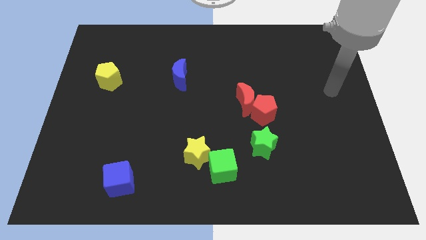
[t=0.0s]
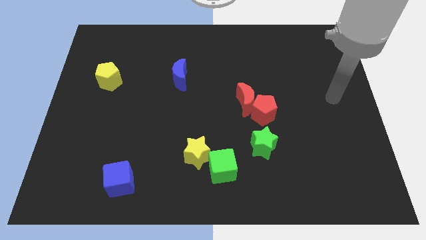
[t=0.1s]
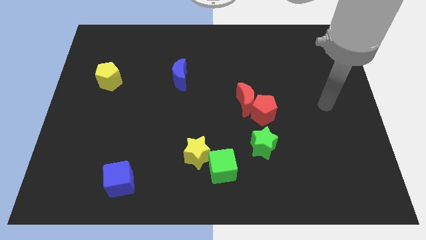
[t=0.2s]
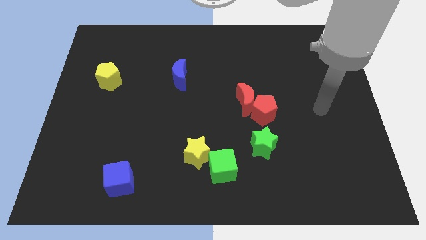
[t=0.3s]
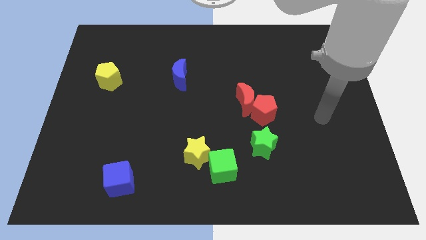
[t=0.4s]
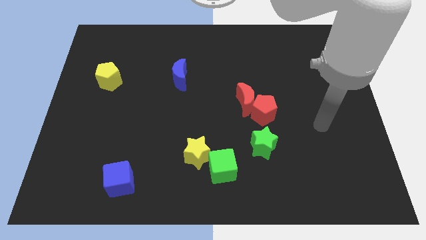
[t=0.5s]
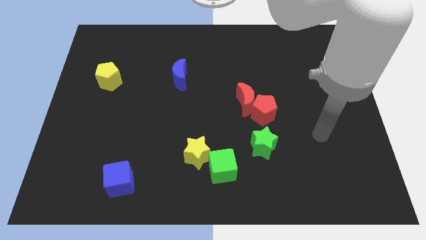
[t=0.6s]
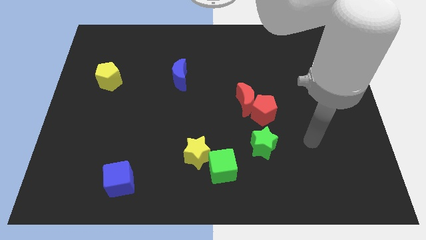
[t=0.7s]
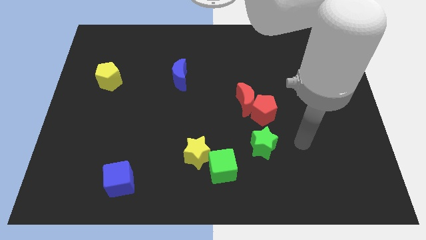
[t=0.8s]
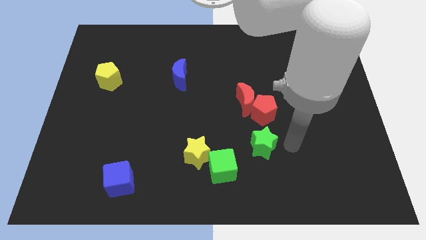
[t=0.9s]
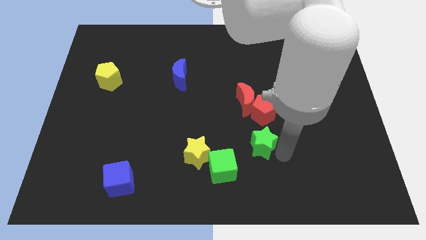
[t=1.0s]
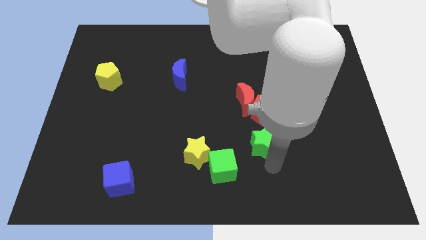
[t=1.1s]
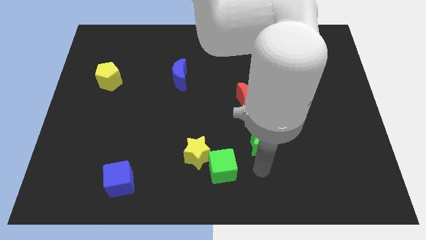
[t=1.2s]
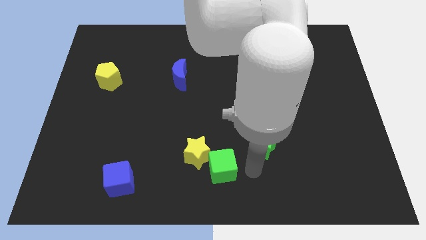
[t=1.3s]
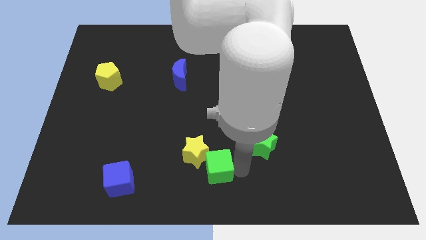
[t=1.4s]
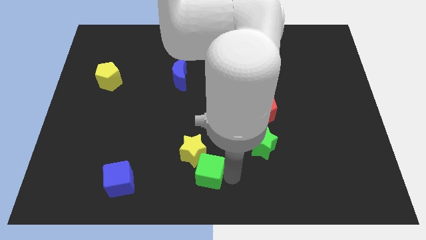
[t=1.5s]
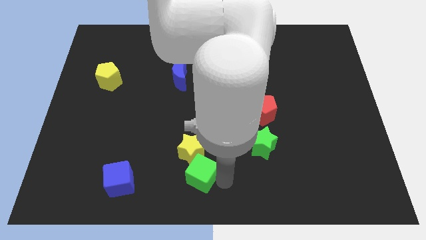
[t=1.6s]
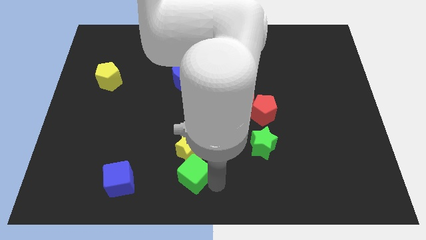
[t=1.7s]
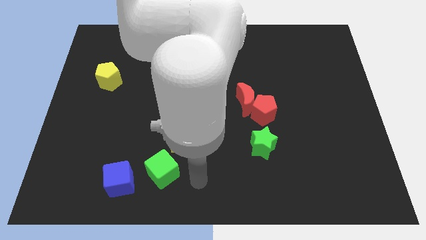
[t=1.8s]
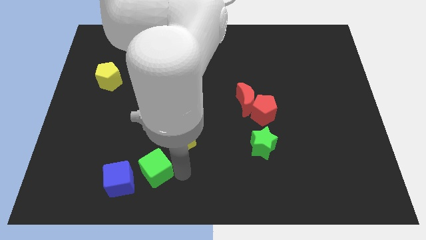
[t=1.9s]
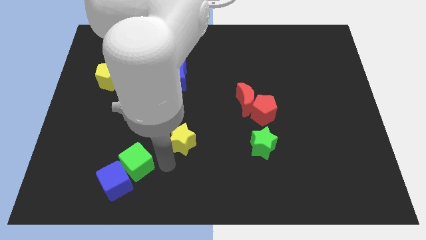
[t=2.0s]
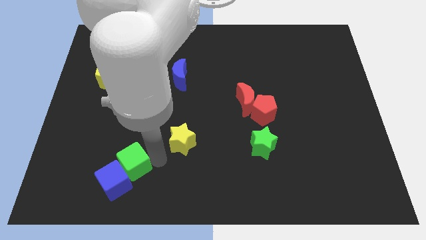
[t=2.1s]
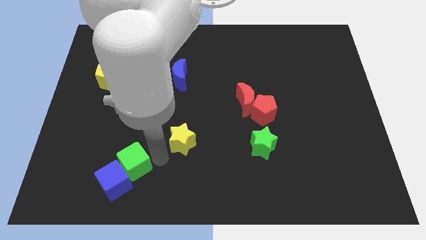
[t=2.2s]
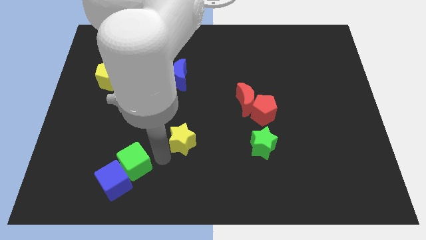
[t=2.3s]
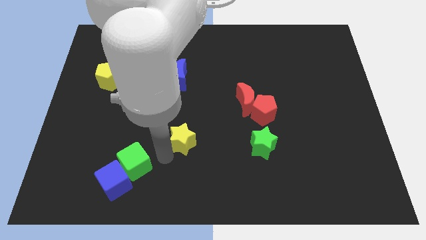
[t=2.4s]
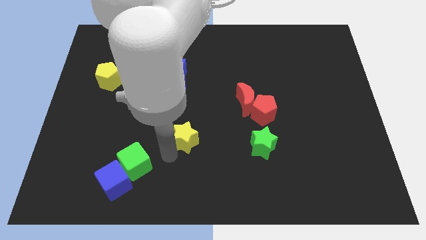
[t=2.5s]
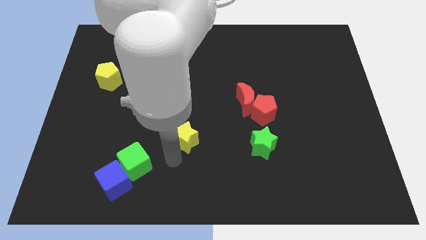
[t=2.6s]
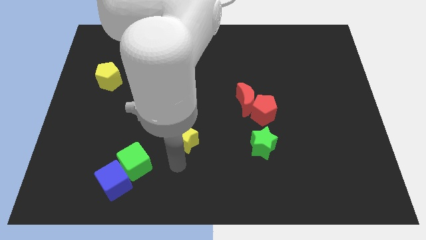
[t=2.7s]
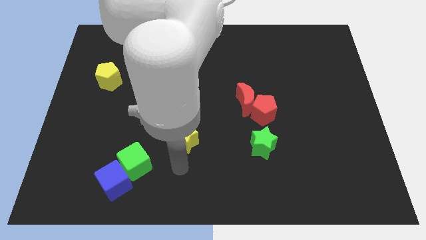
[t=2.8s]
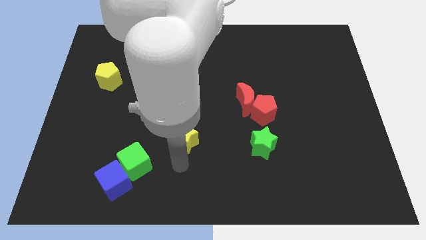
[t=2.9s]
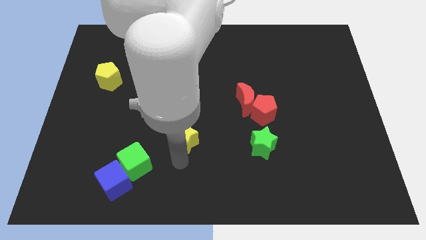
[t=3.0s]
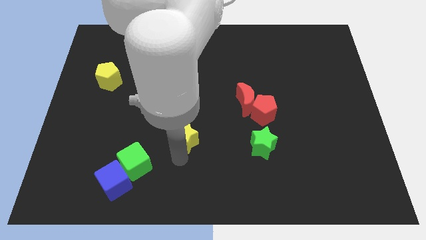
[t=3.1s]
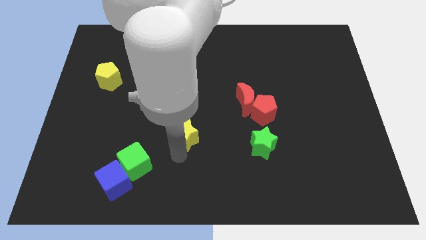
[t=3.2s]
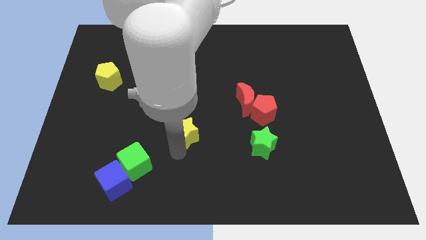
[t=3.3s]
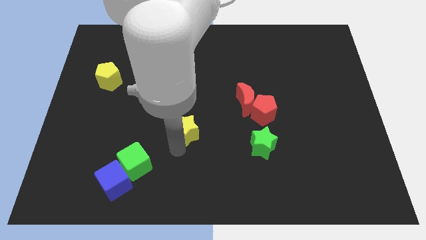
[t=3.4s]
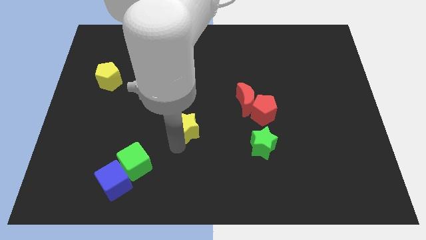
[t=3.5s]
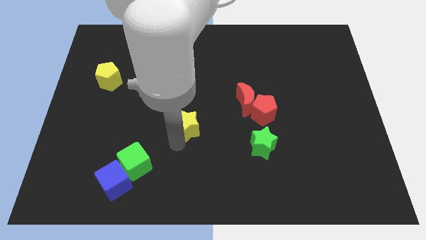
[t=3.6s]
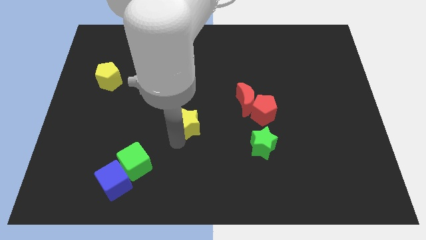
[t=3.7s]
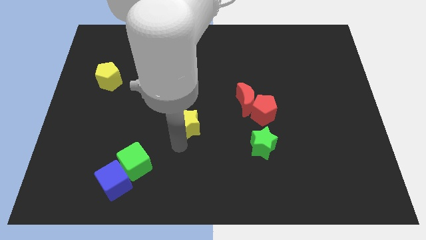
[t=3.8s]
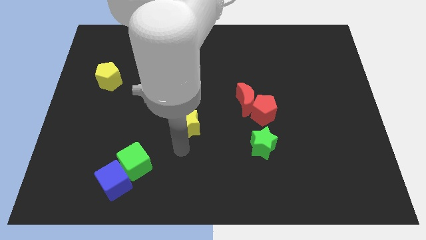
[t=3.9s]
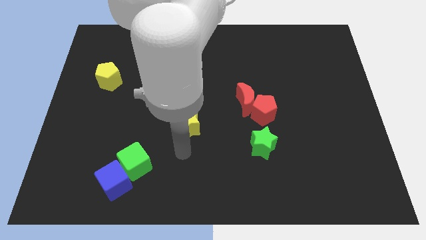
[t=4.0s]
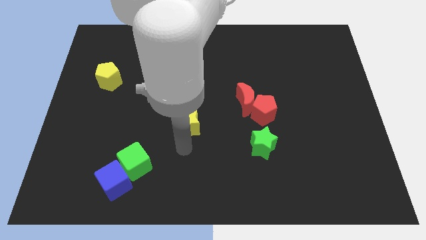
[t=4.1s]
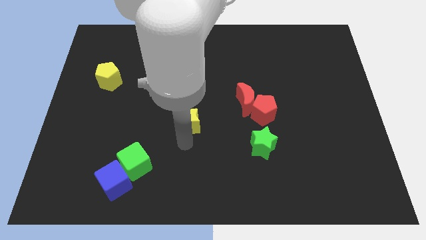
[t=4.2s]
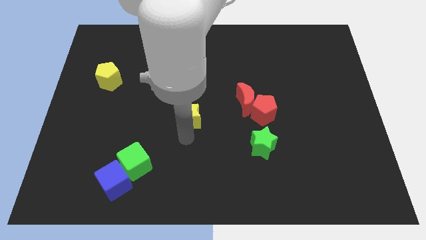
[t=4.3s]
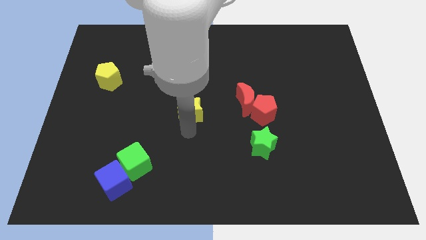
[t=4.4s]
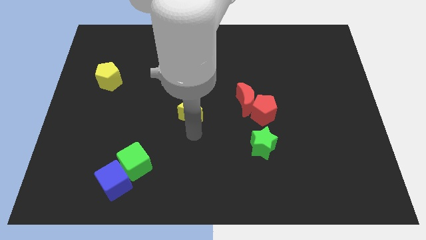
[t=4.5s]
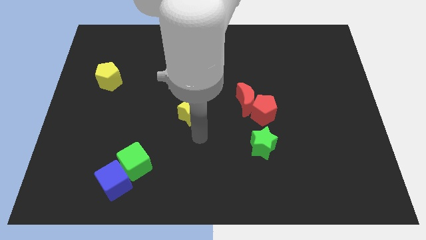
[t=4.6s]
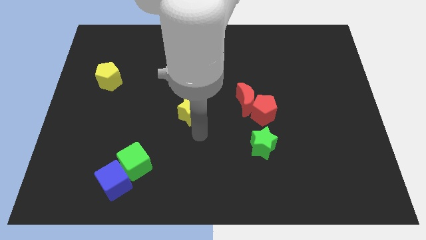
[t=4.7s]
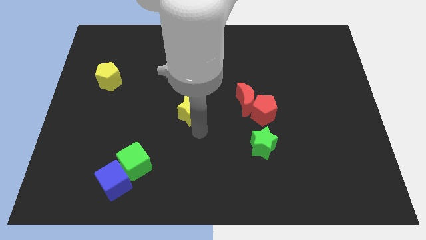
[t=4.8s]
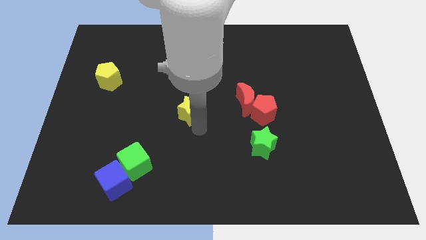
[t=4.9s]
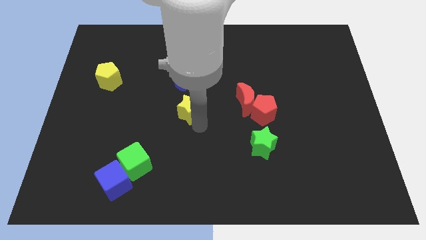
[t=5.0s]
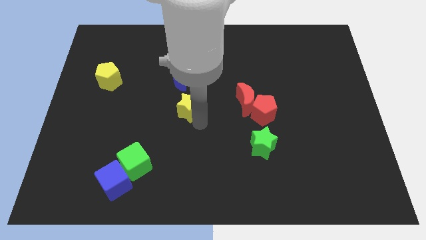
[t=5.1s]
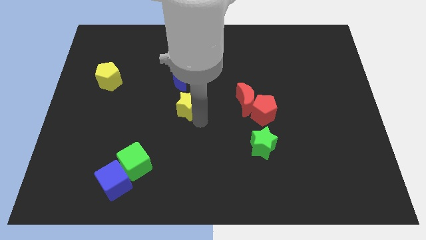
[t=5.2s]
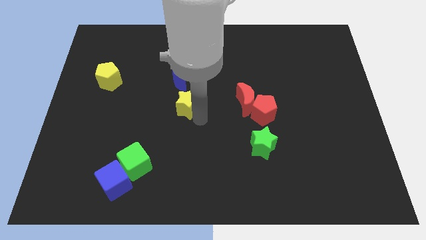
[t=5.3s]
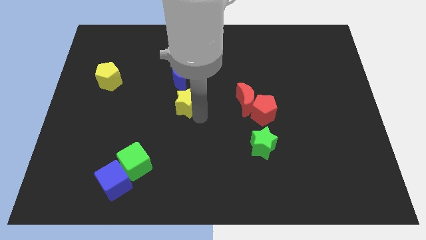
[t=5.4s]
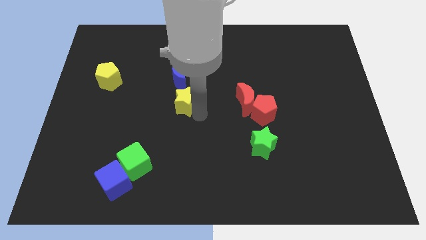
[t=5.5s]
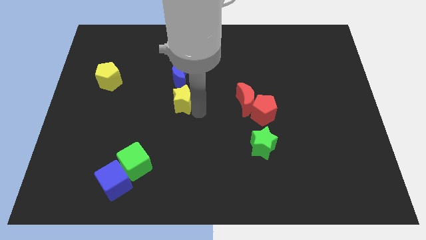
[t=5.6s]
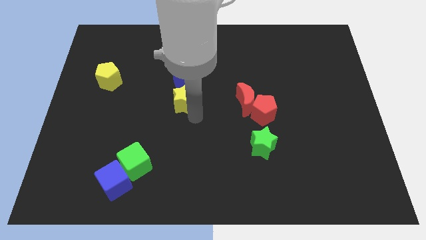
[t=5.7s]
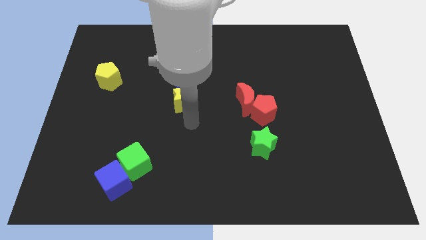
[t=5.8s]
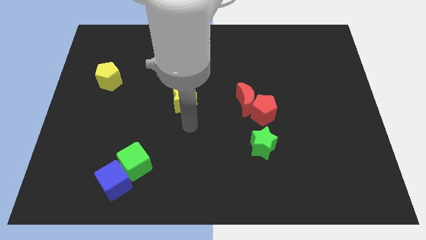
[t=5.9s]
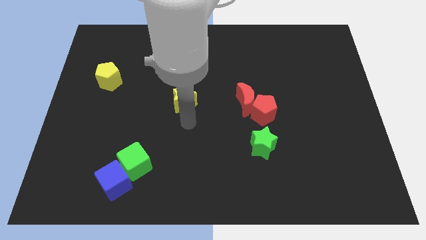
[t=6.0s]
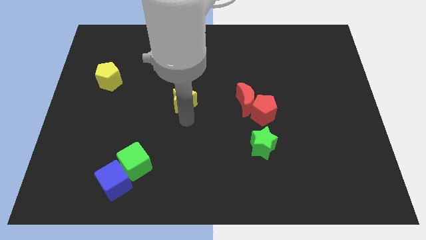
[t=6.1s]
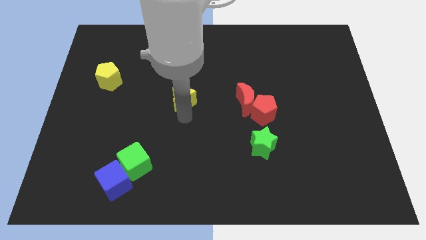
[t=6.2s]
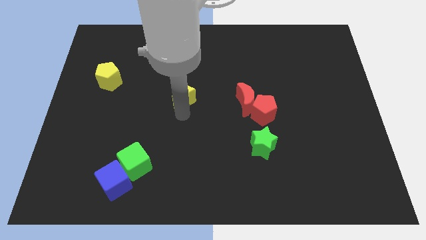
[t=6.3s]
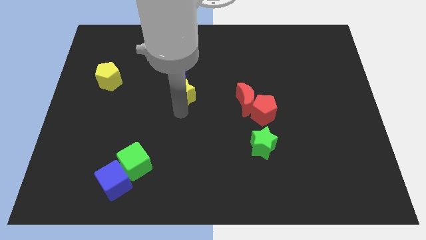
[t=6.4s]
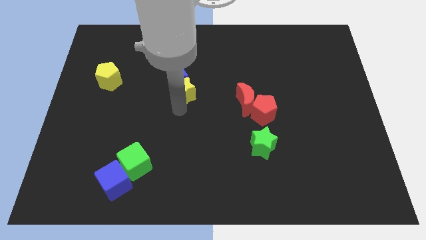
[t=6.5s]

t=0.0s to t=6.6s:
move the yellow star close to the blue moon
